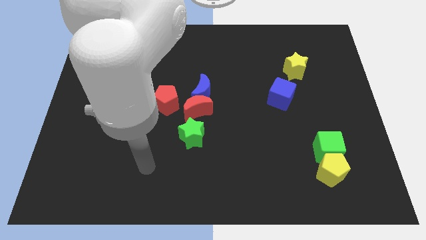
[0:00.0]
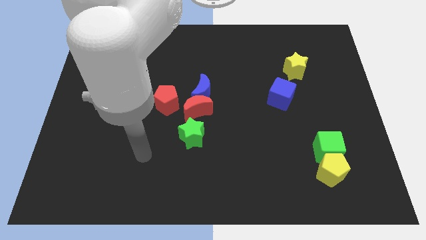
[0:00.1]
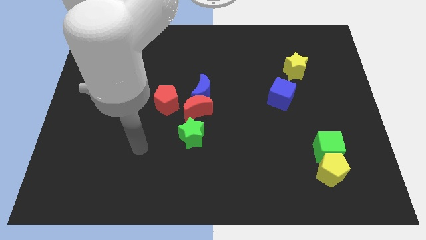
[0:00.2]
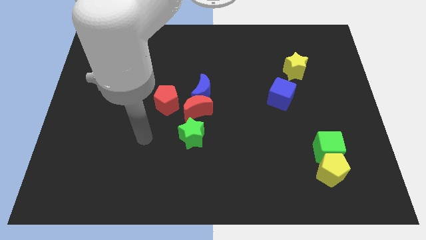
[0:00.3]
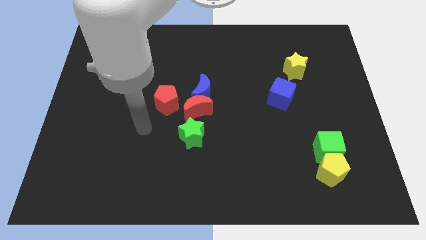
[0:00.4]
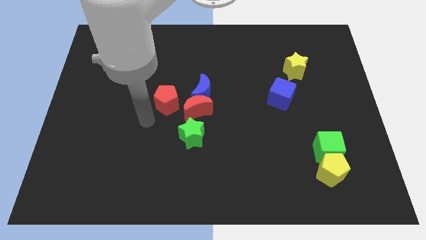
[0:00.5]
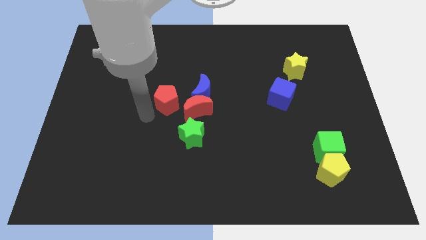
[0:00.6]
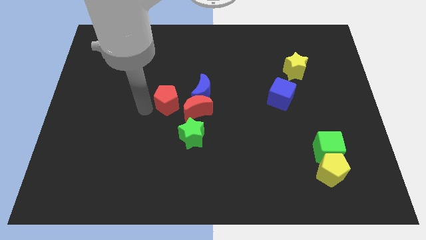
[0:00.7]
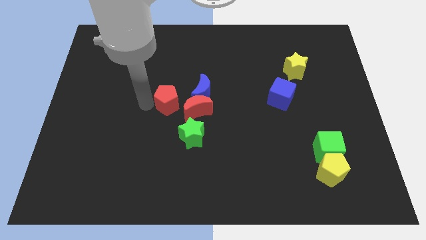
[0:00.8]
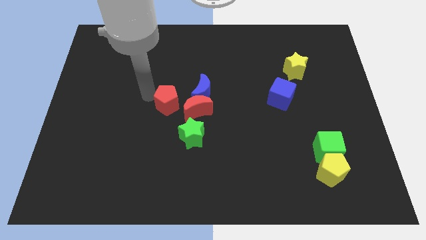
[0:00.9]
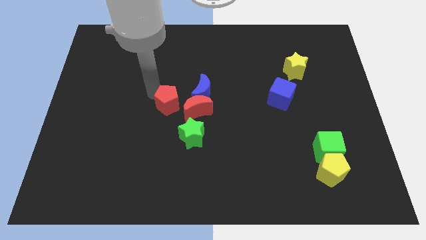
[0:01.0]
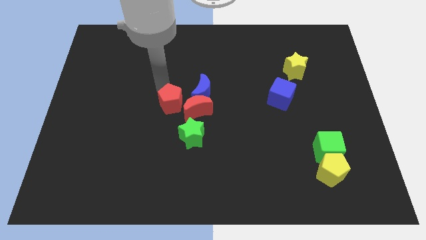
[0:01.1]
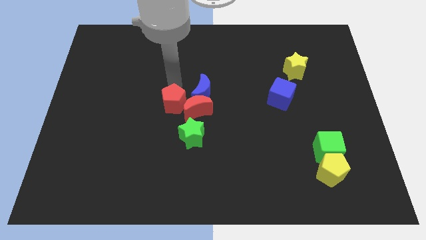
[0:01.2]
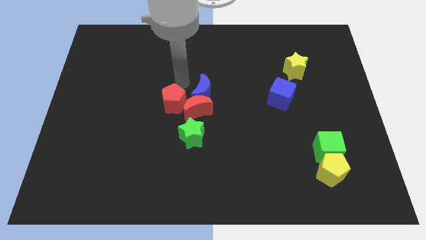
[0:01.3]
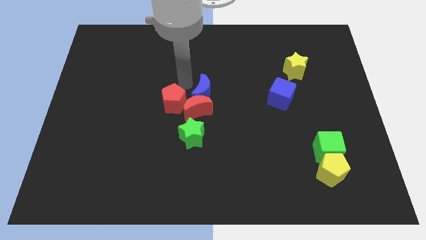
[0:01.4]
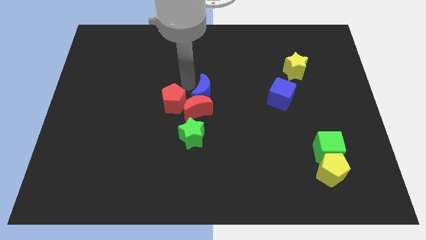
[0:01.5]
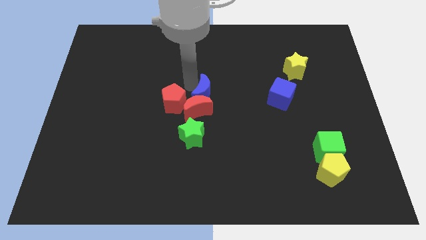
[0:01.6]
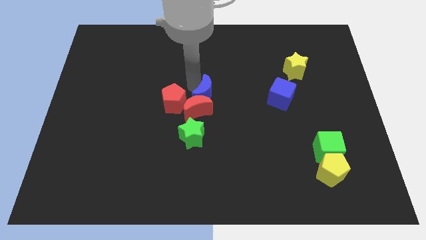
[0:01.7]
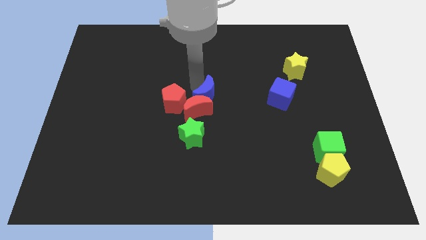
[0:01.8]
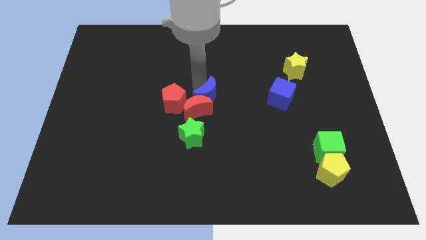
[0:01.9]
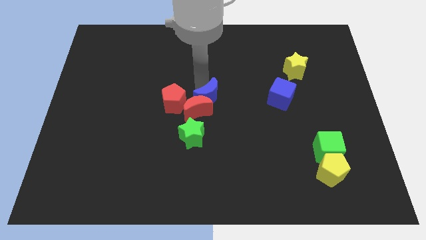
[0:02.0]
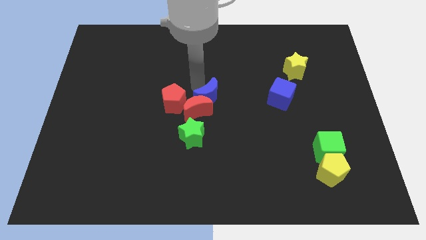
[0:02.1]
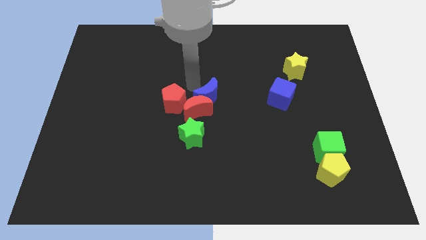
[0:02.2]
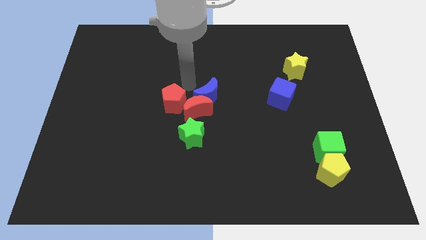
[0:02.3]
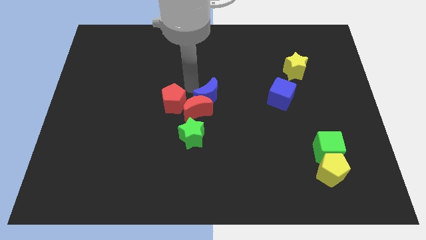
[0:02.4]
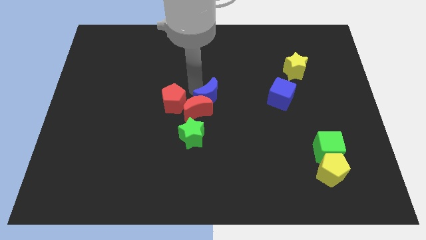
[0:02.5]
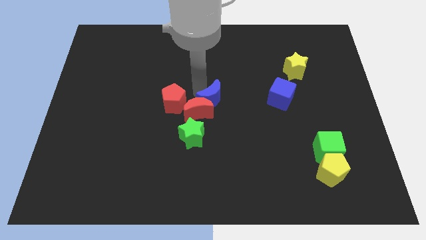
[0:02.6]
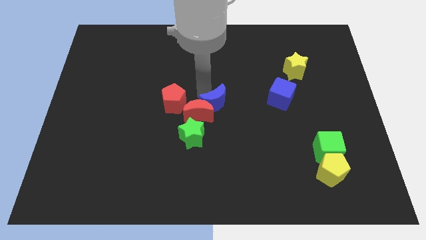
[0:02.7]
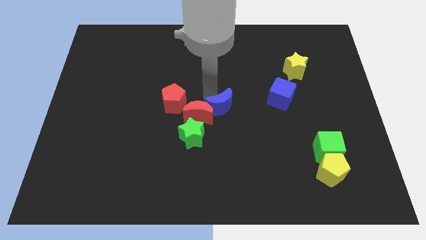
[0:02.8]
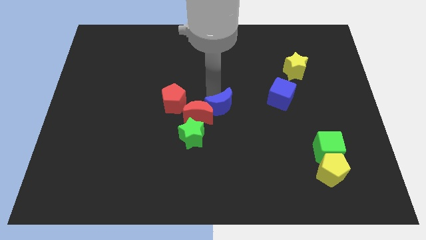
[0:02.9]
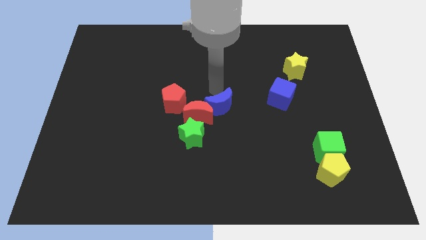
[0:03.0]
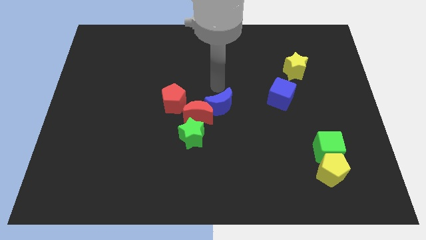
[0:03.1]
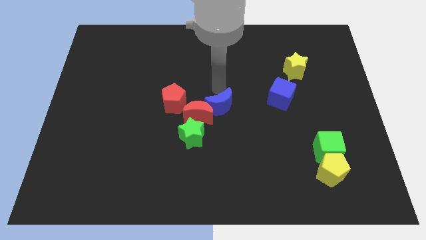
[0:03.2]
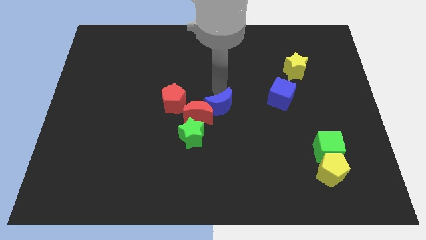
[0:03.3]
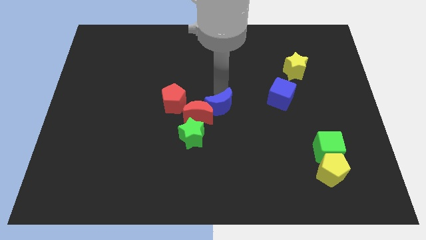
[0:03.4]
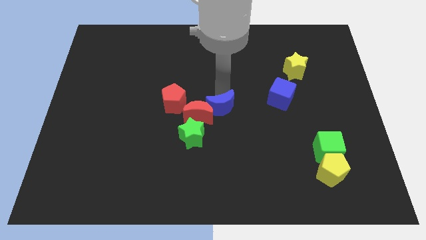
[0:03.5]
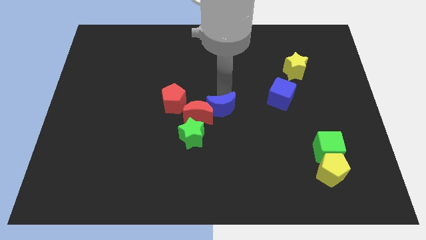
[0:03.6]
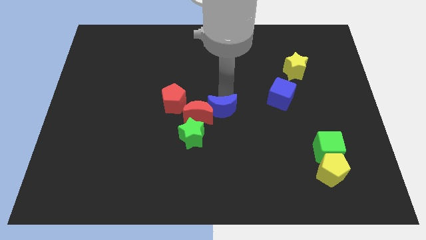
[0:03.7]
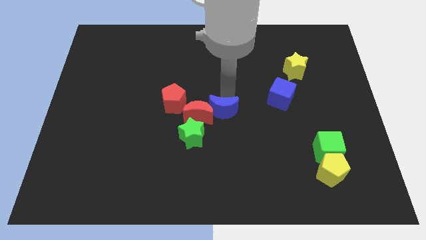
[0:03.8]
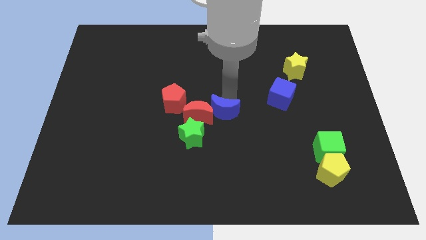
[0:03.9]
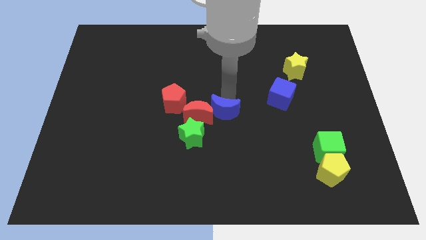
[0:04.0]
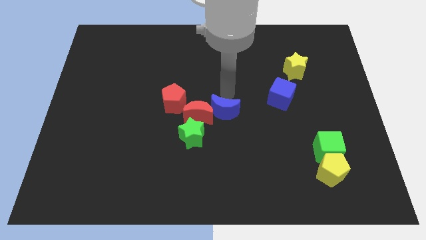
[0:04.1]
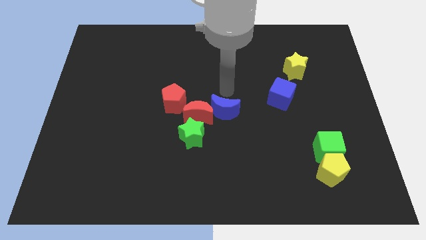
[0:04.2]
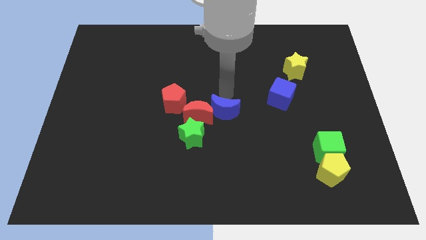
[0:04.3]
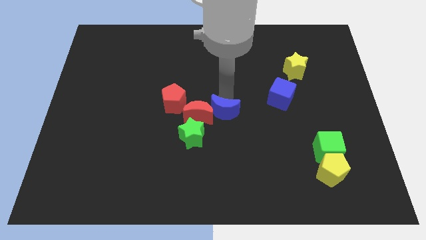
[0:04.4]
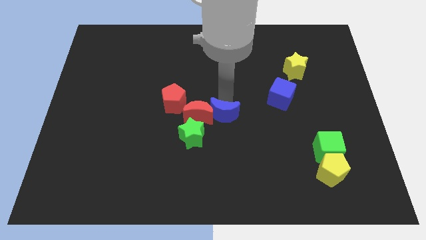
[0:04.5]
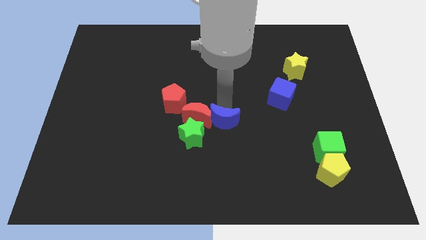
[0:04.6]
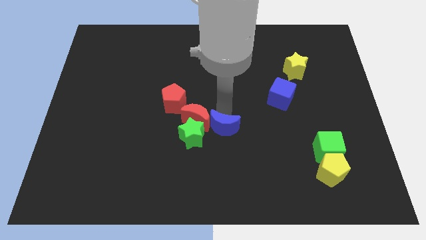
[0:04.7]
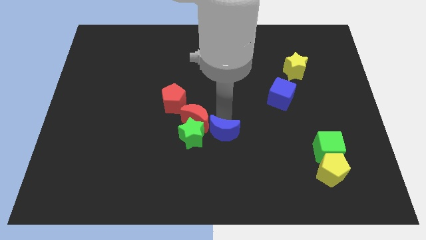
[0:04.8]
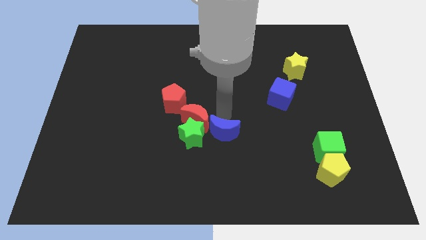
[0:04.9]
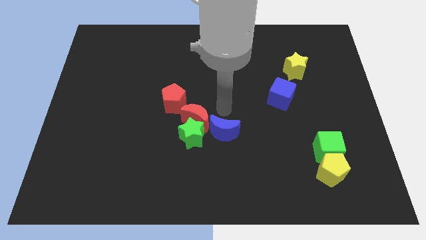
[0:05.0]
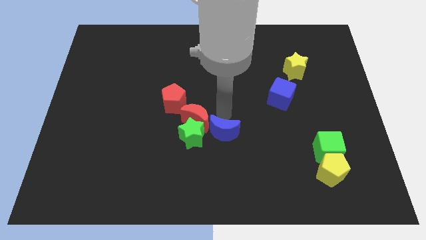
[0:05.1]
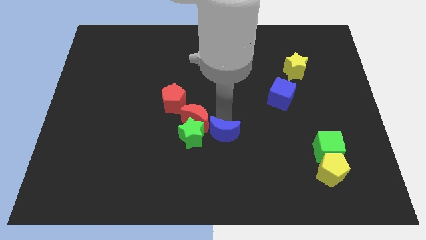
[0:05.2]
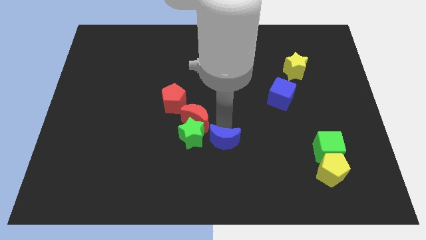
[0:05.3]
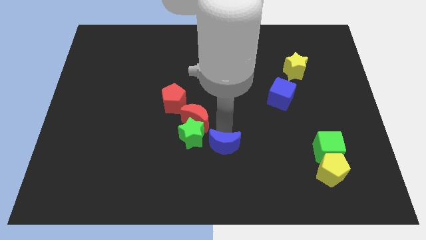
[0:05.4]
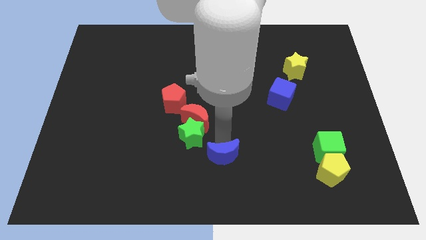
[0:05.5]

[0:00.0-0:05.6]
slide the blue moon to the bottom

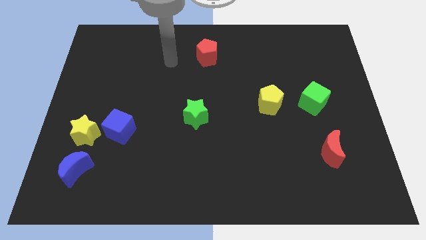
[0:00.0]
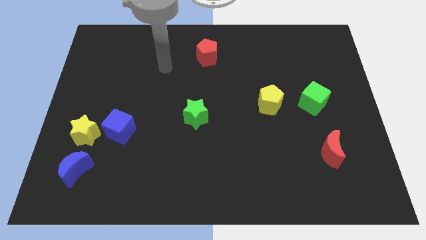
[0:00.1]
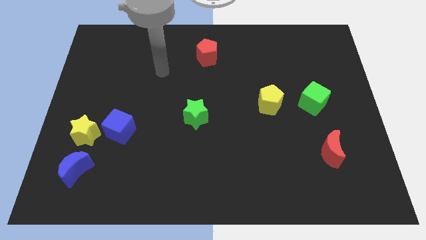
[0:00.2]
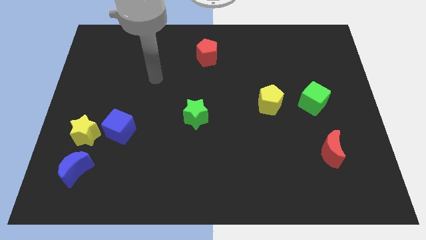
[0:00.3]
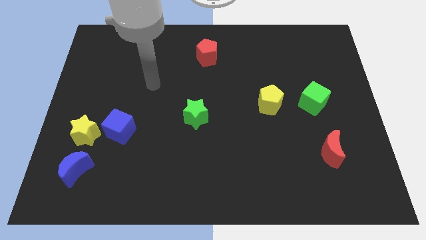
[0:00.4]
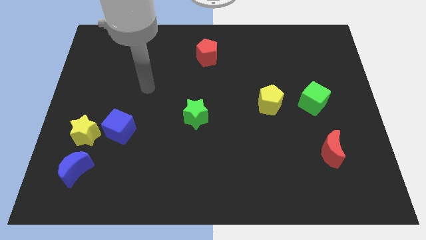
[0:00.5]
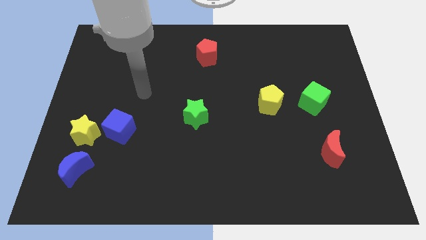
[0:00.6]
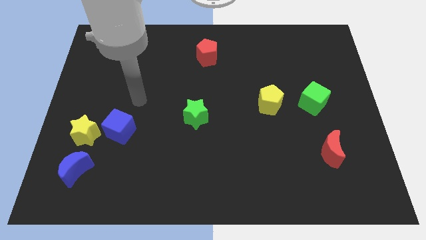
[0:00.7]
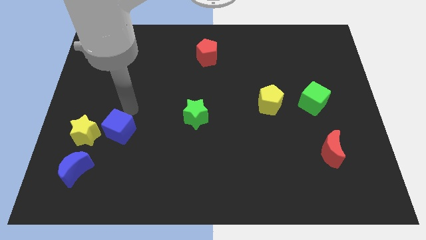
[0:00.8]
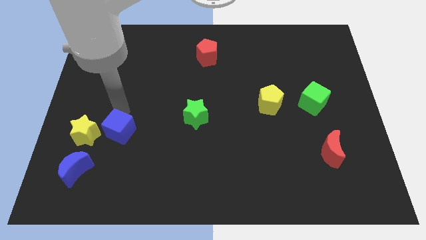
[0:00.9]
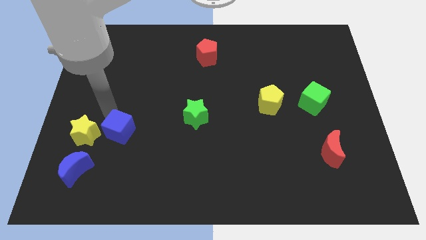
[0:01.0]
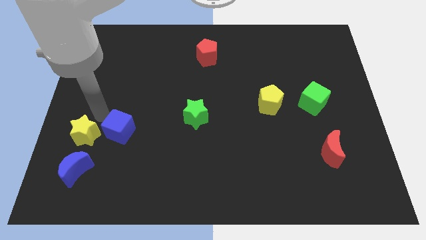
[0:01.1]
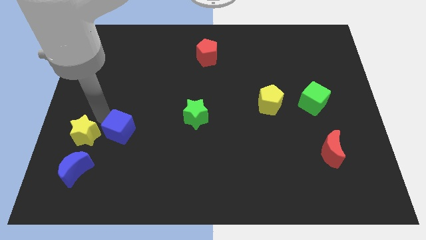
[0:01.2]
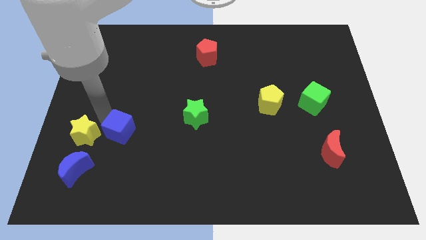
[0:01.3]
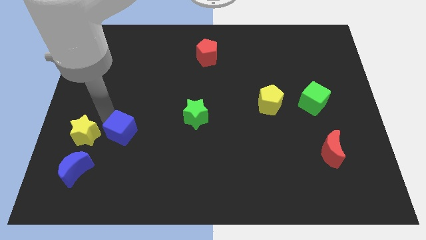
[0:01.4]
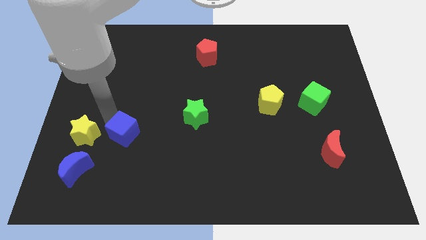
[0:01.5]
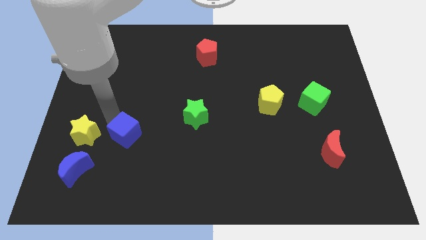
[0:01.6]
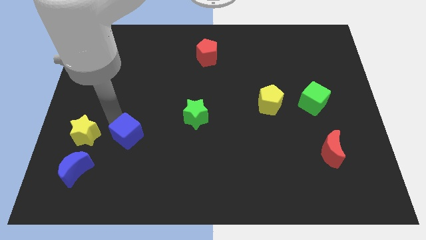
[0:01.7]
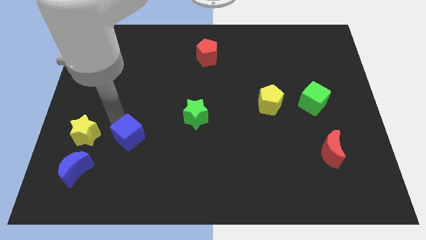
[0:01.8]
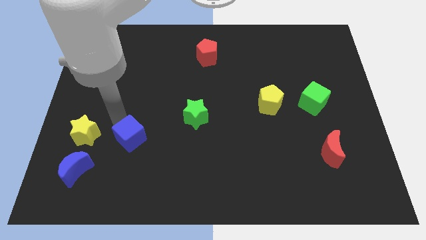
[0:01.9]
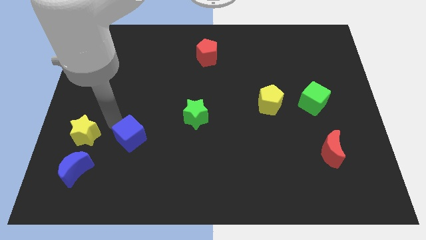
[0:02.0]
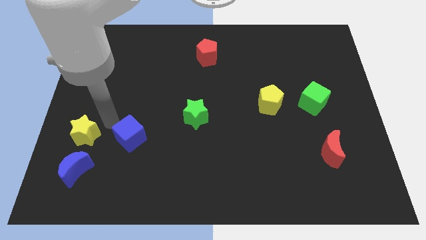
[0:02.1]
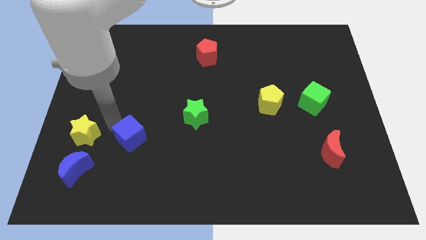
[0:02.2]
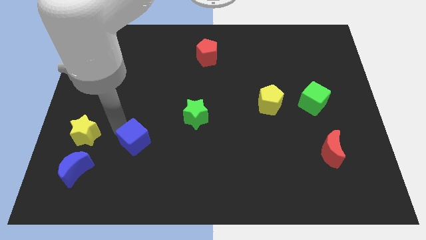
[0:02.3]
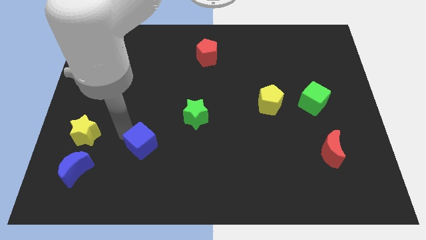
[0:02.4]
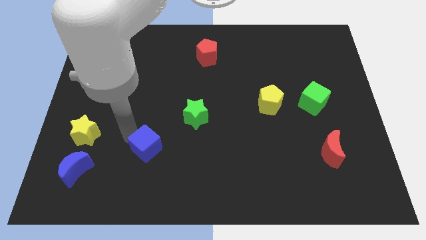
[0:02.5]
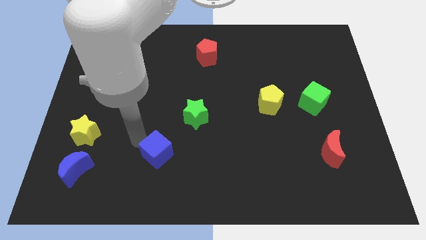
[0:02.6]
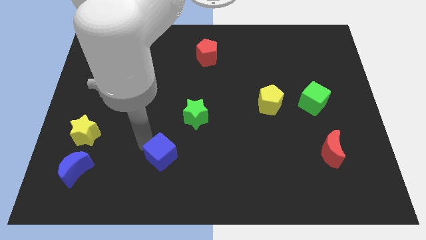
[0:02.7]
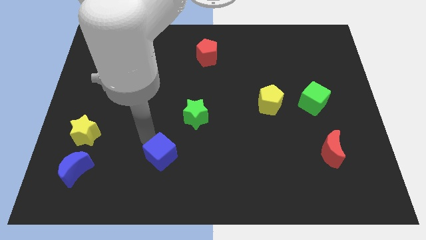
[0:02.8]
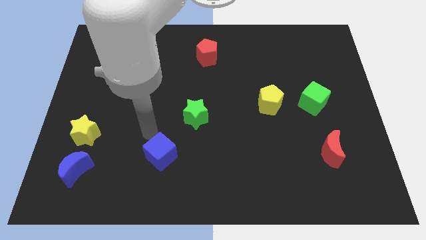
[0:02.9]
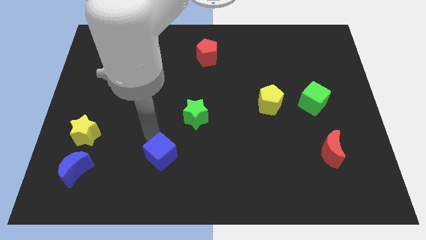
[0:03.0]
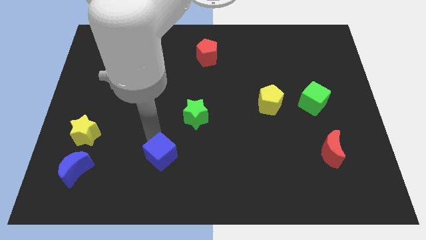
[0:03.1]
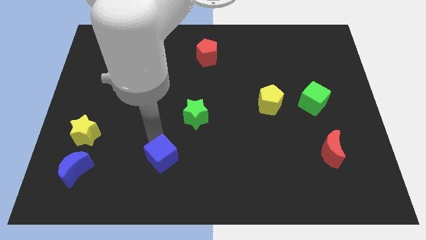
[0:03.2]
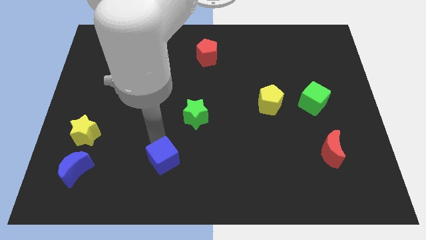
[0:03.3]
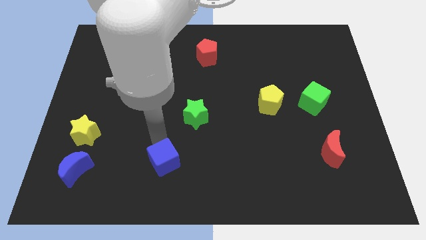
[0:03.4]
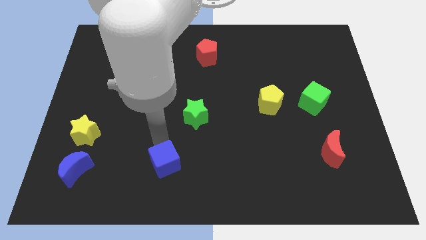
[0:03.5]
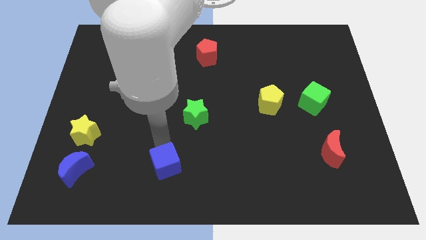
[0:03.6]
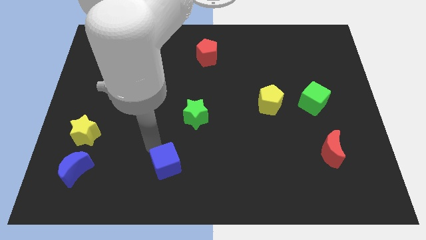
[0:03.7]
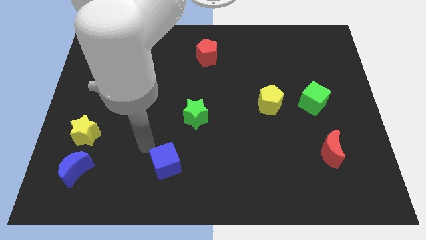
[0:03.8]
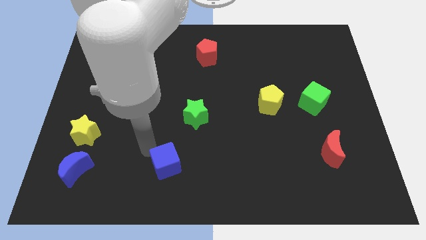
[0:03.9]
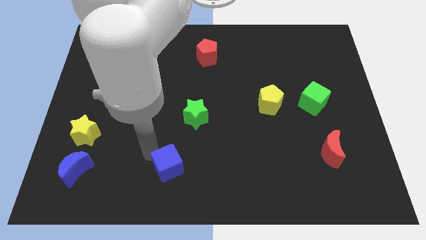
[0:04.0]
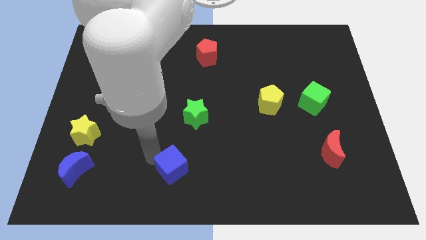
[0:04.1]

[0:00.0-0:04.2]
slide the blue cube to the bottom side
